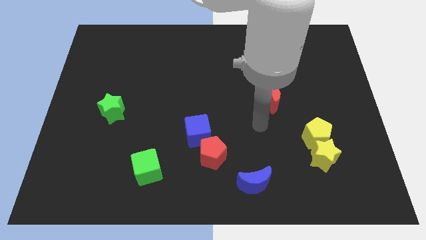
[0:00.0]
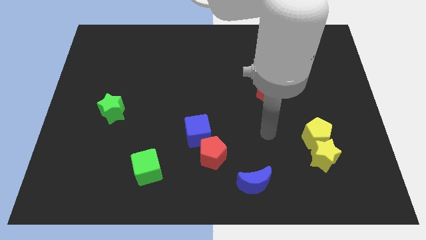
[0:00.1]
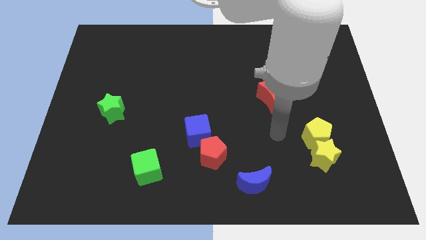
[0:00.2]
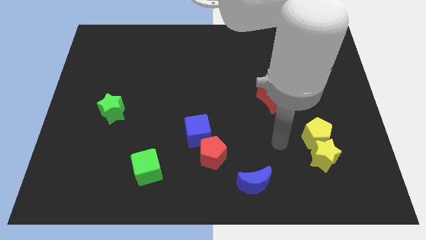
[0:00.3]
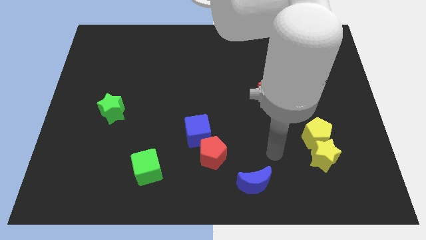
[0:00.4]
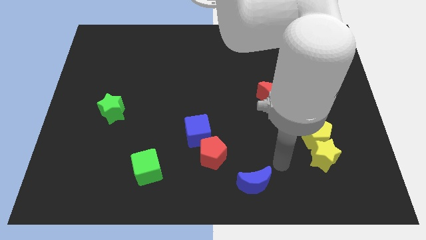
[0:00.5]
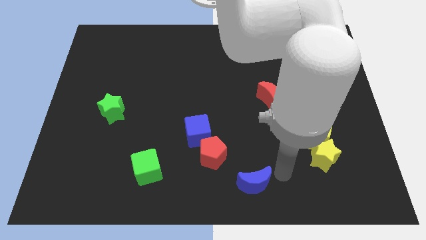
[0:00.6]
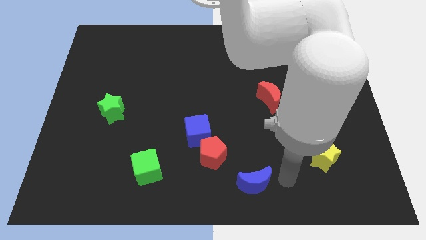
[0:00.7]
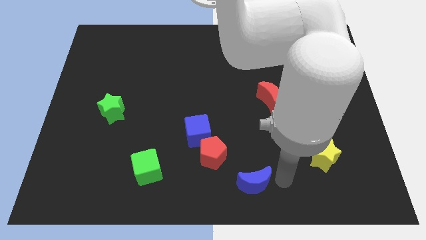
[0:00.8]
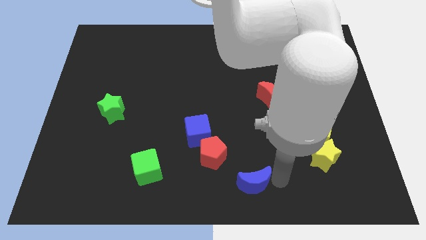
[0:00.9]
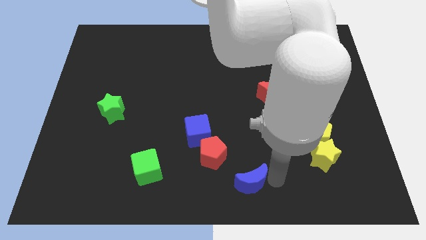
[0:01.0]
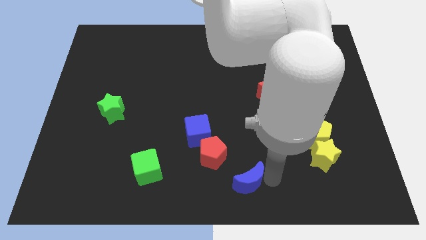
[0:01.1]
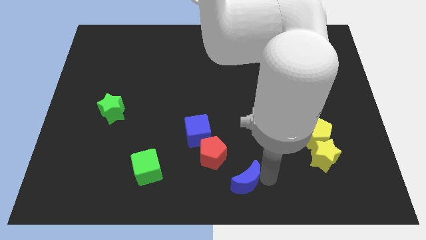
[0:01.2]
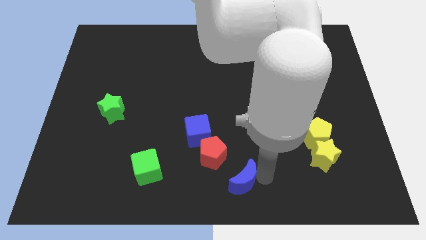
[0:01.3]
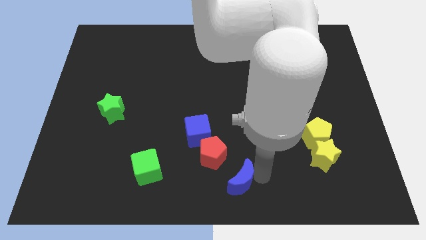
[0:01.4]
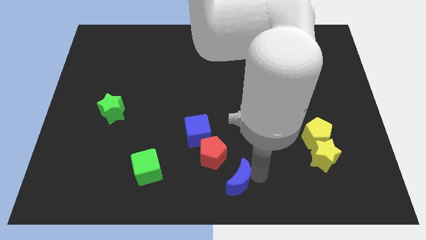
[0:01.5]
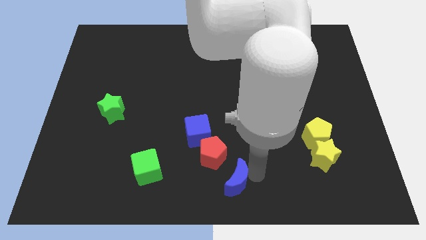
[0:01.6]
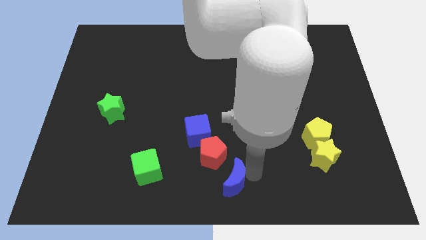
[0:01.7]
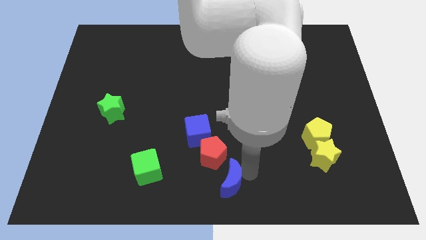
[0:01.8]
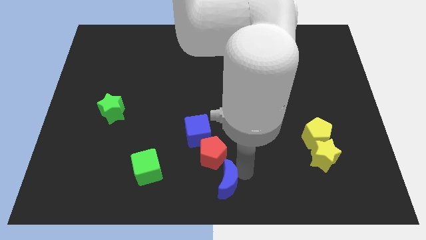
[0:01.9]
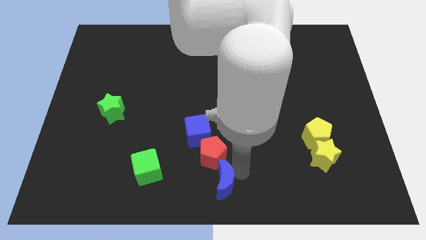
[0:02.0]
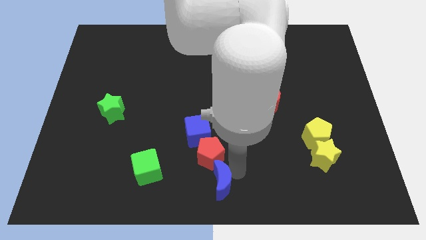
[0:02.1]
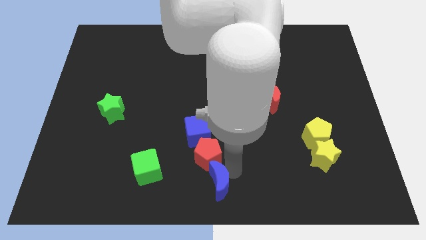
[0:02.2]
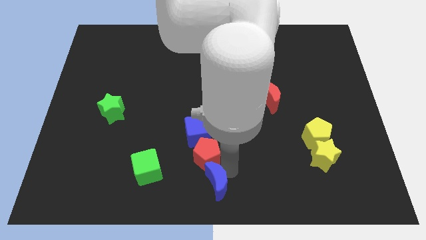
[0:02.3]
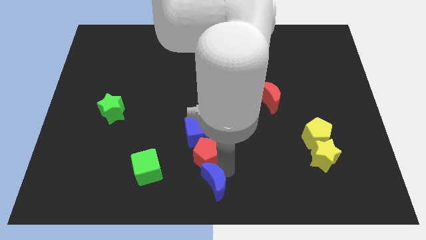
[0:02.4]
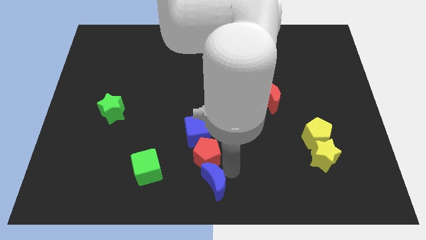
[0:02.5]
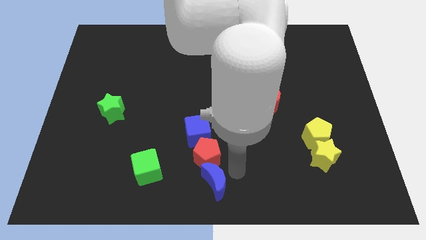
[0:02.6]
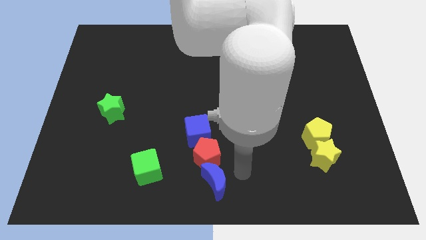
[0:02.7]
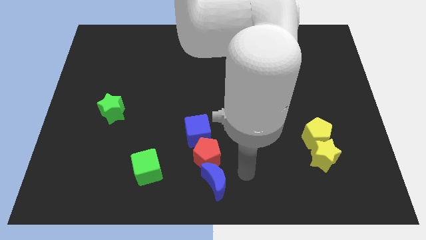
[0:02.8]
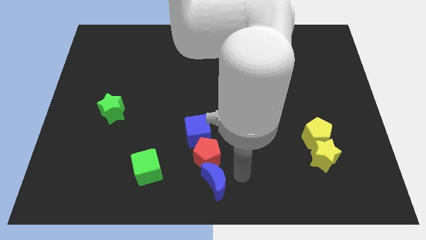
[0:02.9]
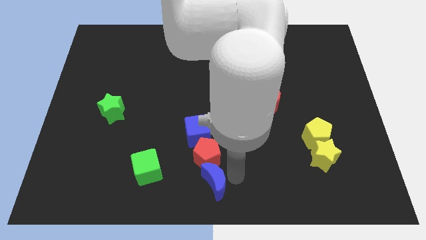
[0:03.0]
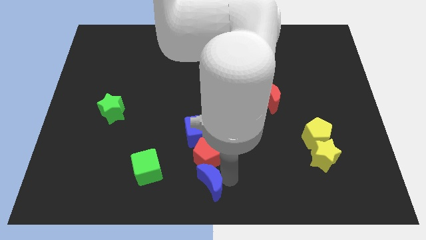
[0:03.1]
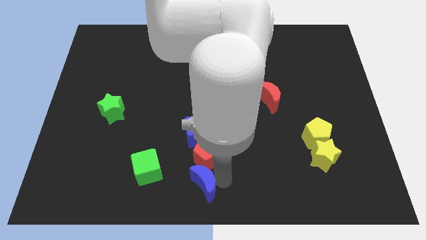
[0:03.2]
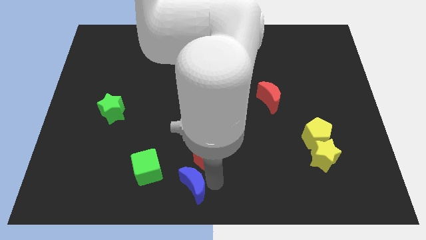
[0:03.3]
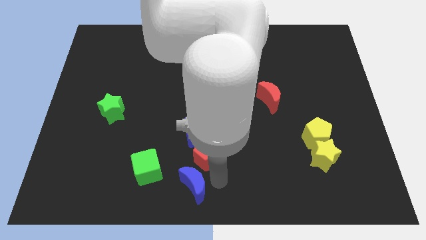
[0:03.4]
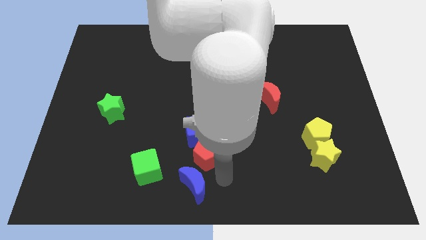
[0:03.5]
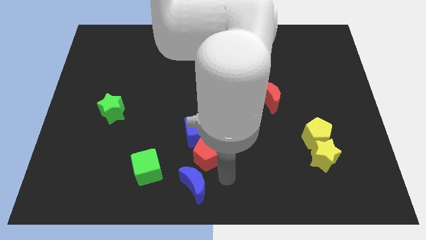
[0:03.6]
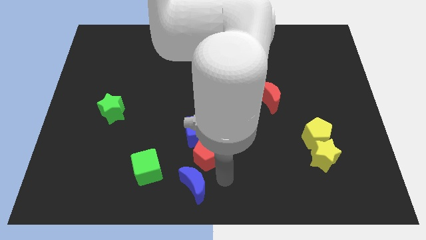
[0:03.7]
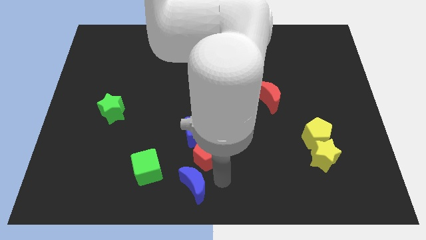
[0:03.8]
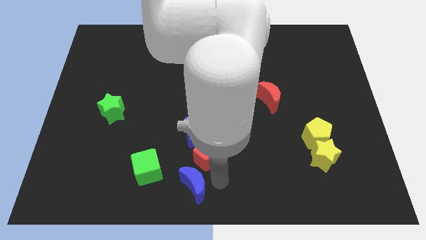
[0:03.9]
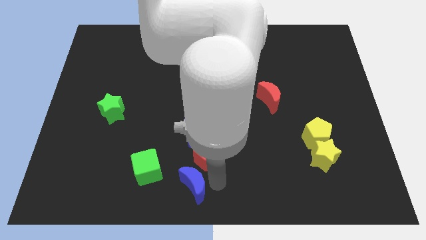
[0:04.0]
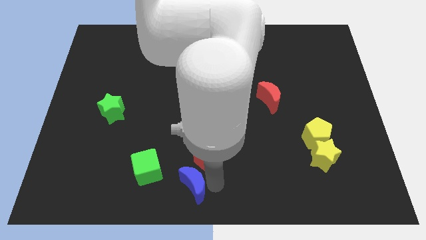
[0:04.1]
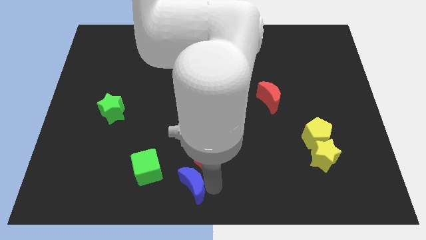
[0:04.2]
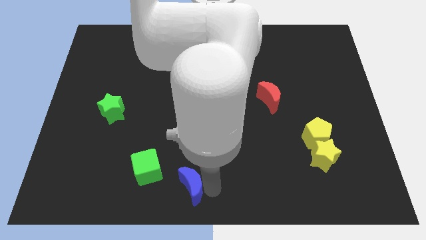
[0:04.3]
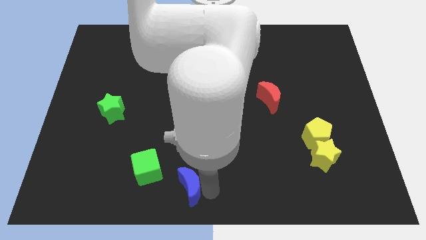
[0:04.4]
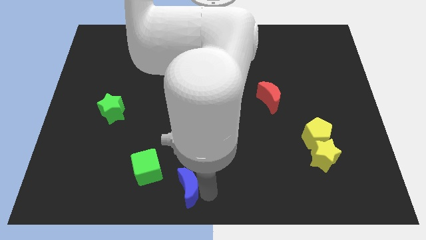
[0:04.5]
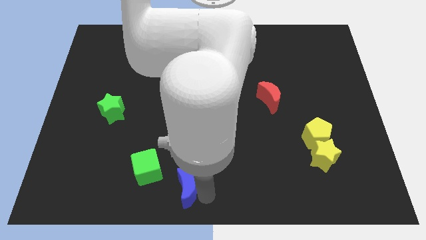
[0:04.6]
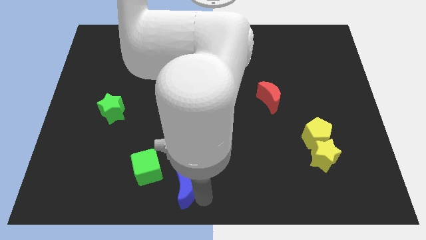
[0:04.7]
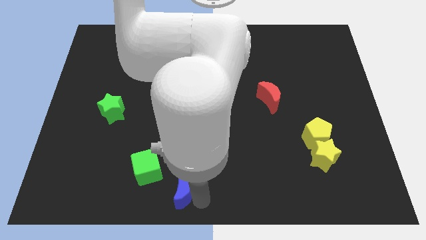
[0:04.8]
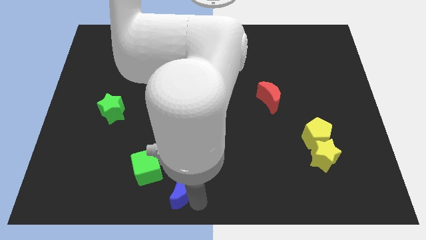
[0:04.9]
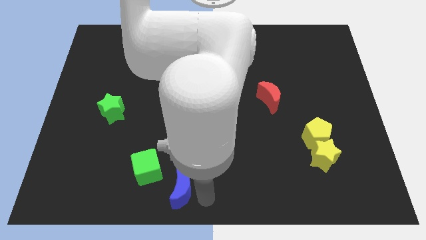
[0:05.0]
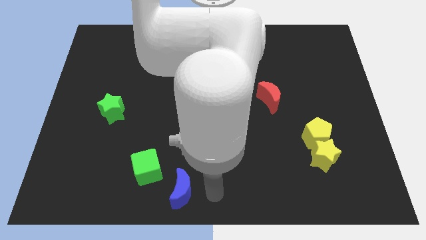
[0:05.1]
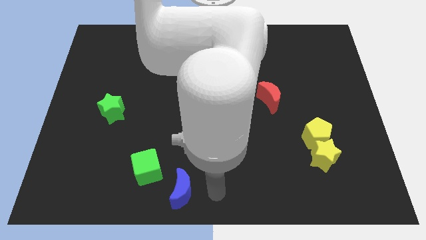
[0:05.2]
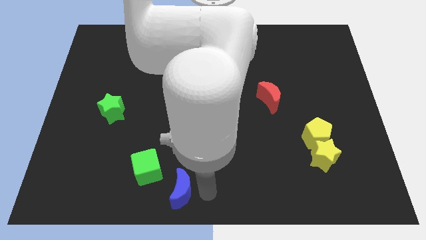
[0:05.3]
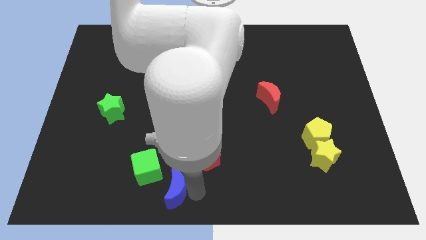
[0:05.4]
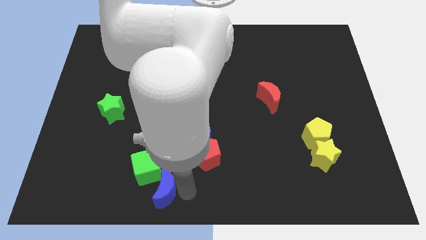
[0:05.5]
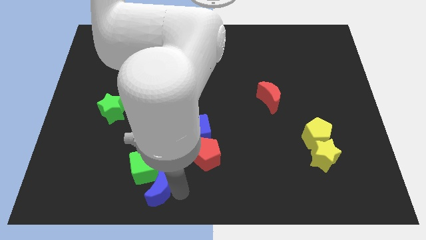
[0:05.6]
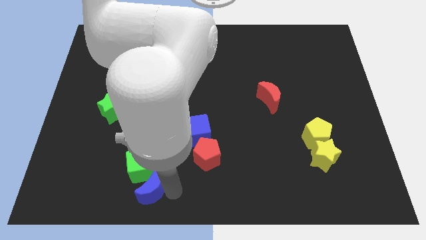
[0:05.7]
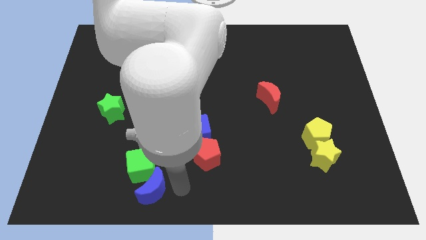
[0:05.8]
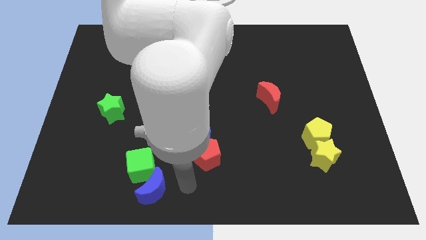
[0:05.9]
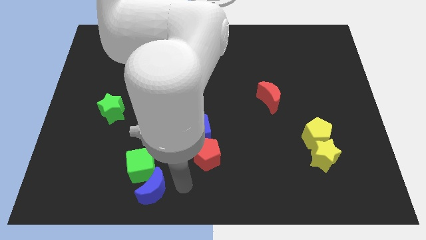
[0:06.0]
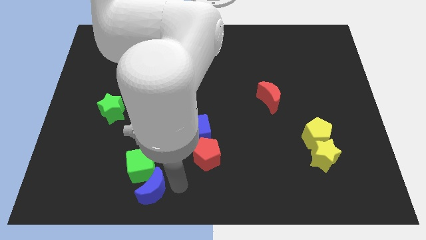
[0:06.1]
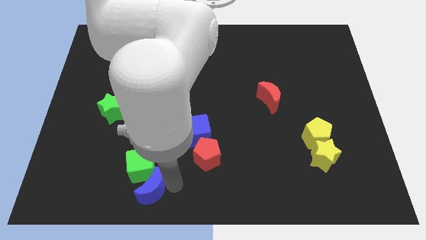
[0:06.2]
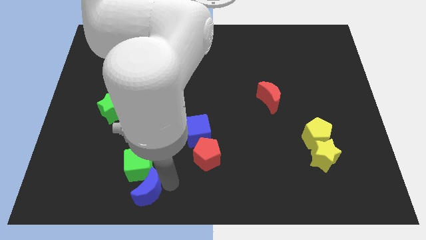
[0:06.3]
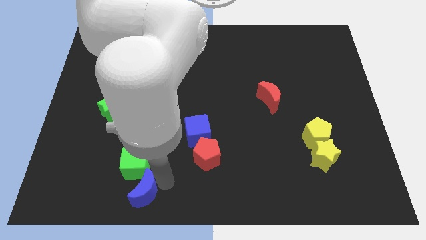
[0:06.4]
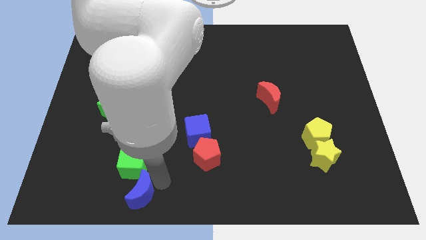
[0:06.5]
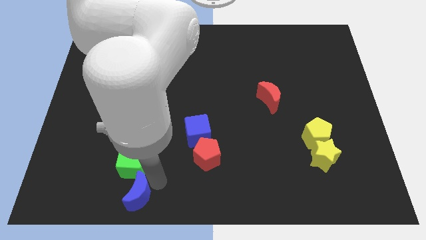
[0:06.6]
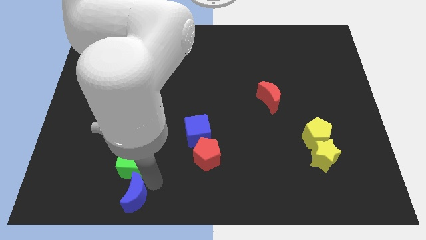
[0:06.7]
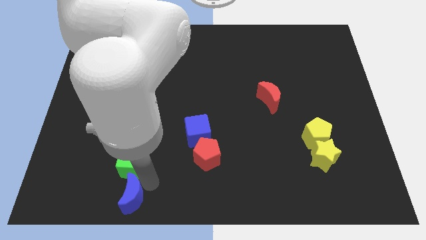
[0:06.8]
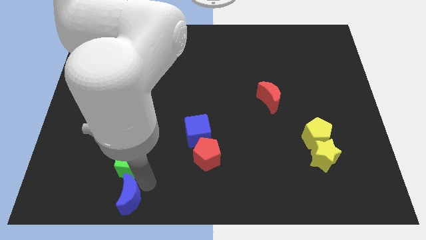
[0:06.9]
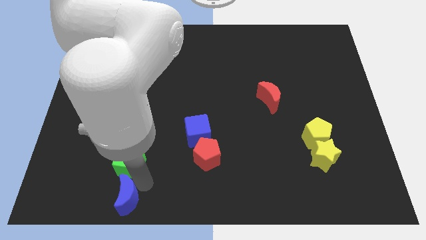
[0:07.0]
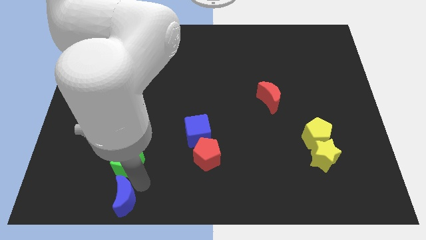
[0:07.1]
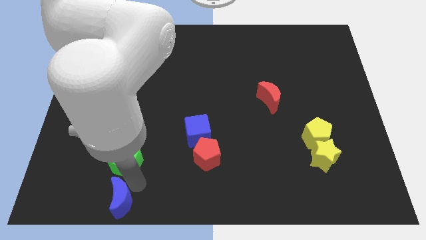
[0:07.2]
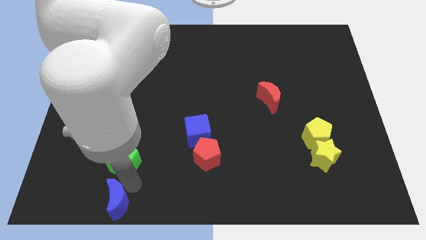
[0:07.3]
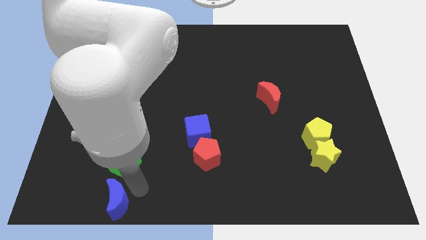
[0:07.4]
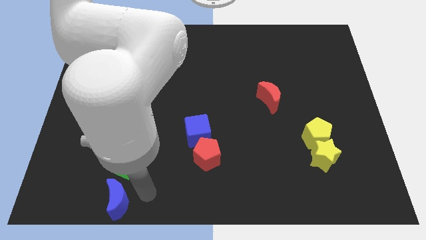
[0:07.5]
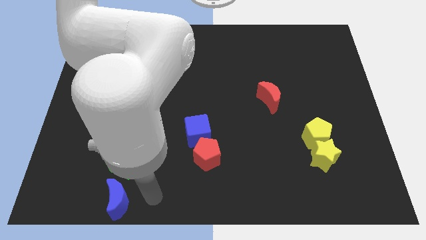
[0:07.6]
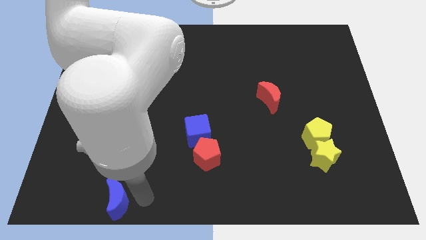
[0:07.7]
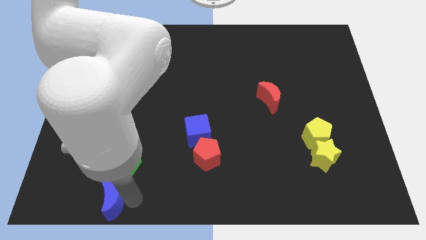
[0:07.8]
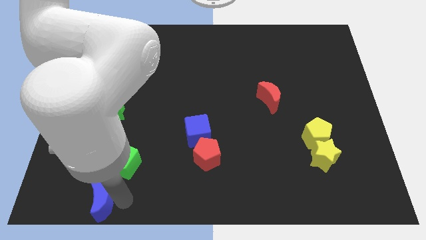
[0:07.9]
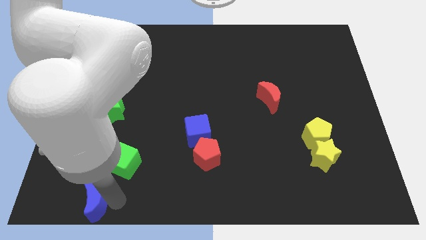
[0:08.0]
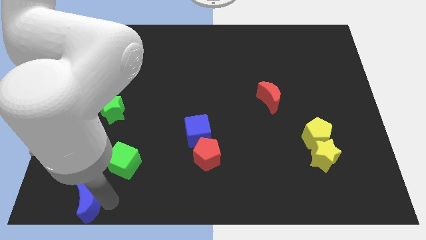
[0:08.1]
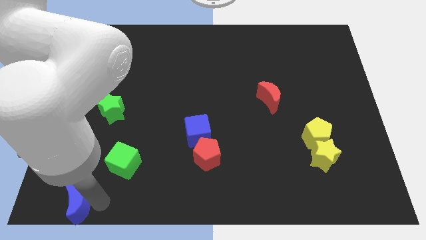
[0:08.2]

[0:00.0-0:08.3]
put the blue moon to the lower left corner
